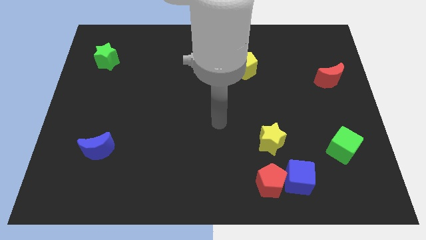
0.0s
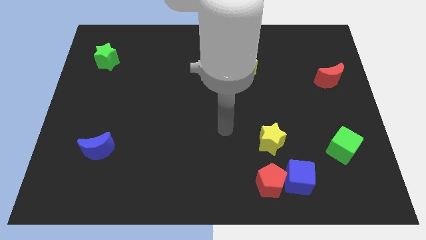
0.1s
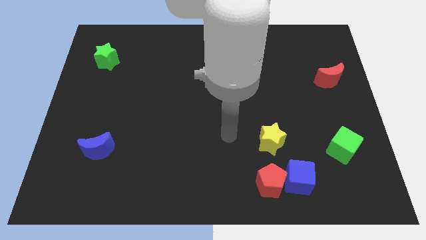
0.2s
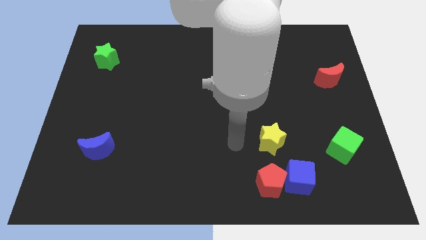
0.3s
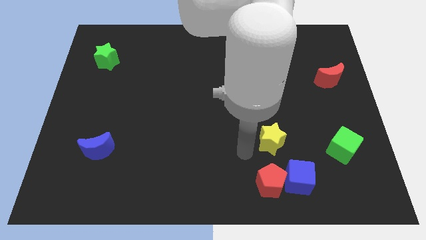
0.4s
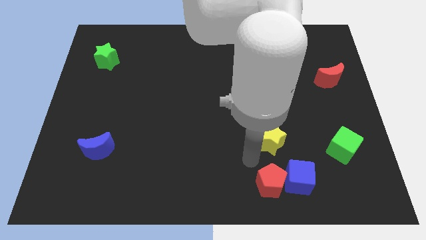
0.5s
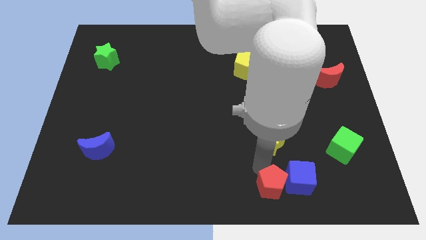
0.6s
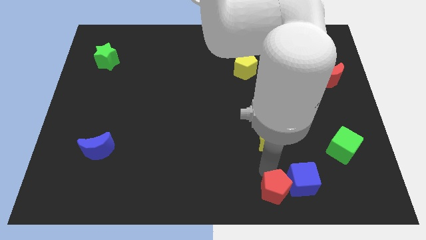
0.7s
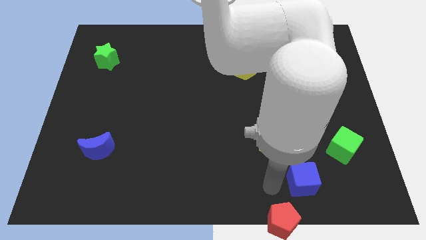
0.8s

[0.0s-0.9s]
pull the blue cube apart from the red pentagon

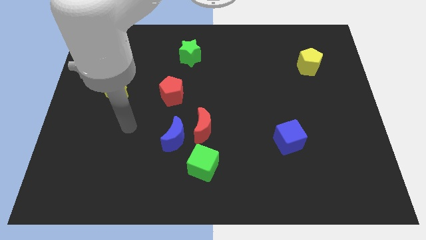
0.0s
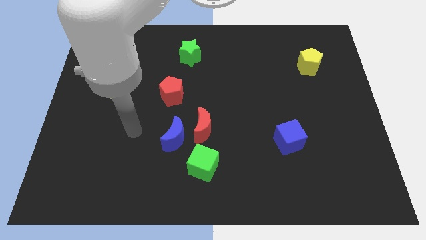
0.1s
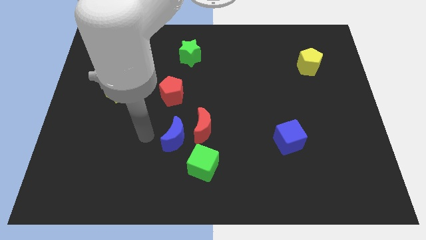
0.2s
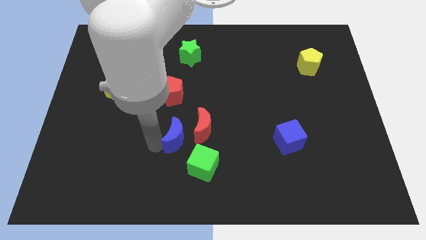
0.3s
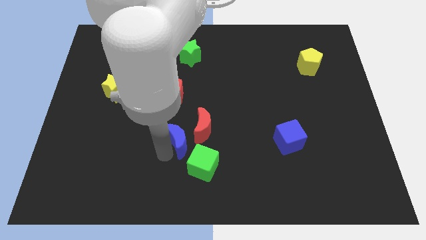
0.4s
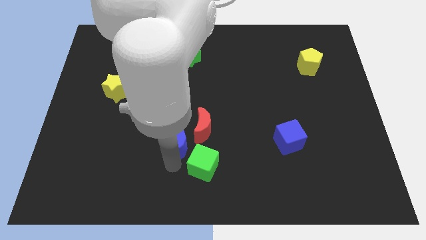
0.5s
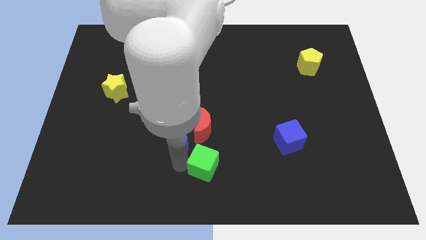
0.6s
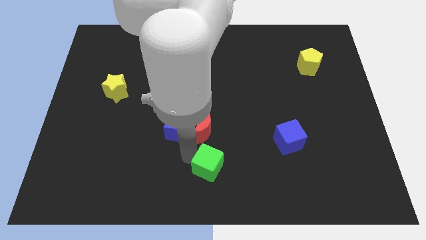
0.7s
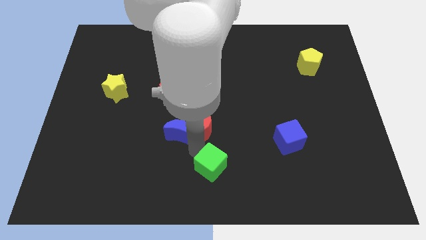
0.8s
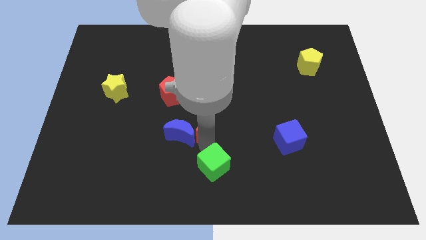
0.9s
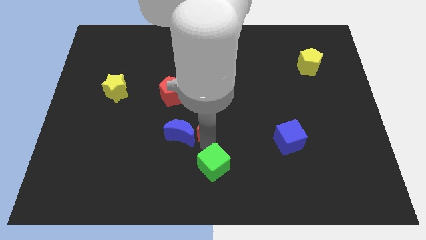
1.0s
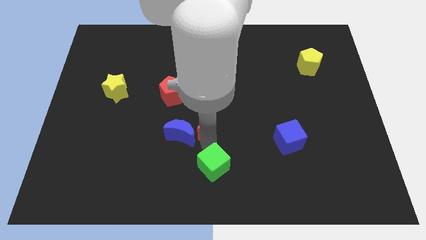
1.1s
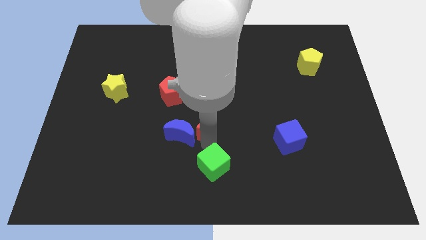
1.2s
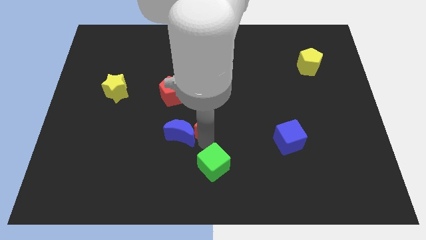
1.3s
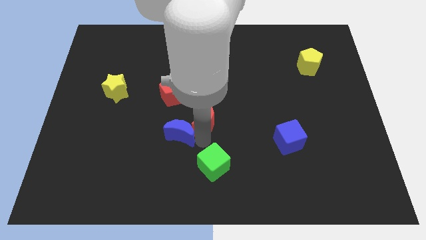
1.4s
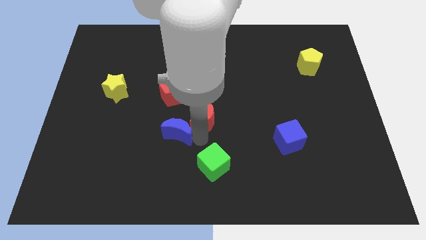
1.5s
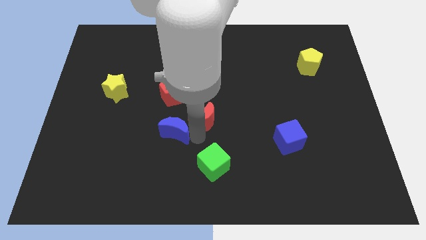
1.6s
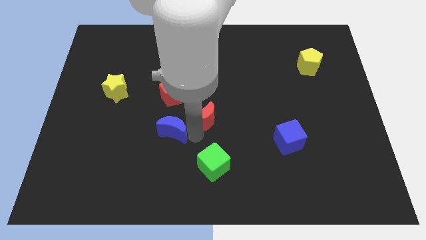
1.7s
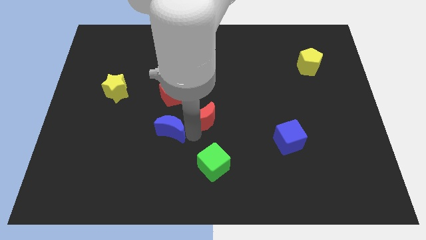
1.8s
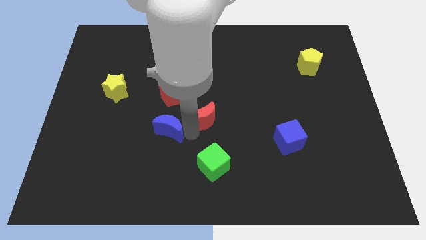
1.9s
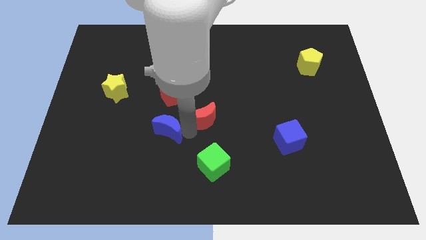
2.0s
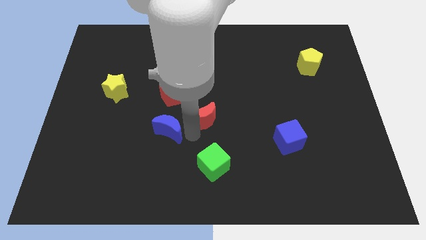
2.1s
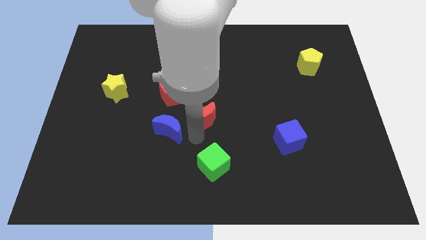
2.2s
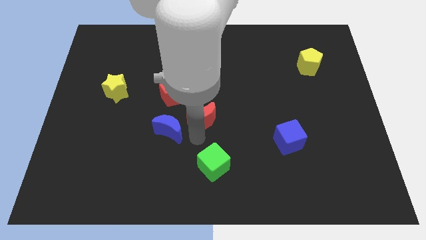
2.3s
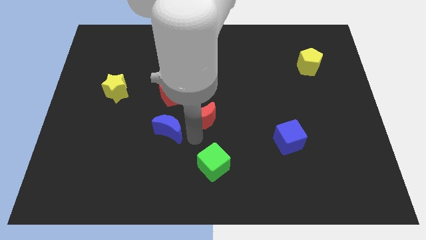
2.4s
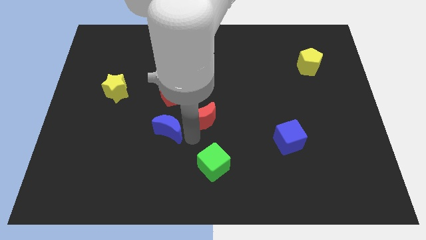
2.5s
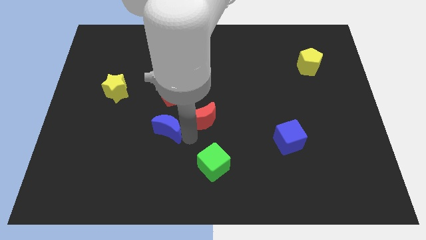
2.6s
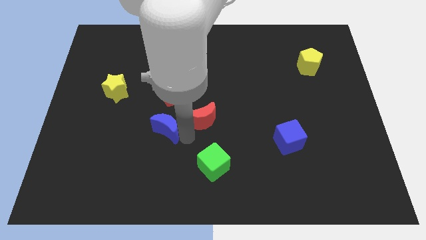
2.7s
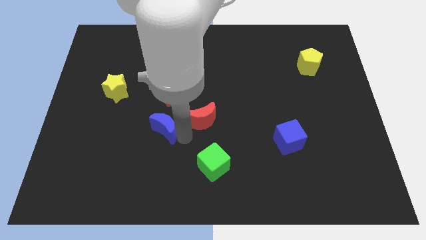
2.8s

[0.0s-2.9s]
pull the blue moon apart from the red moon and green cube

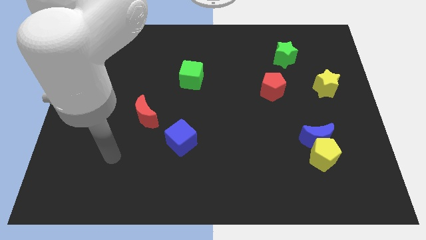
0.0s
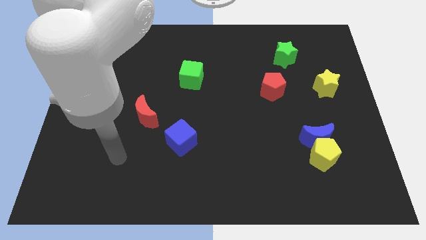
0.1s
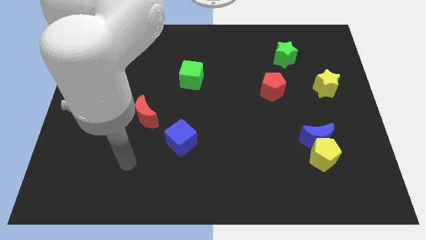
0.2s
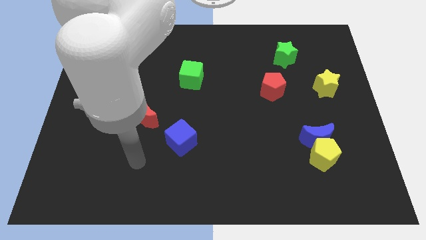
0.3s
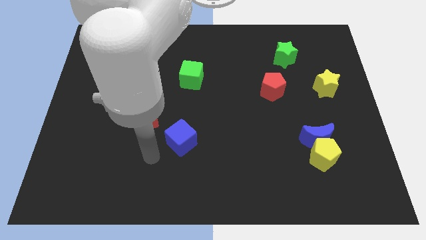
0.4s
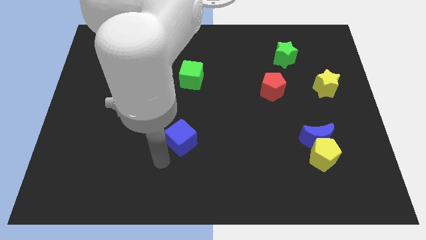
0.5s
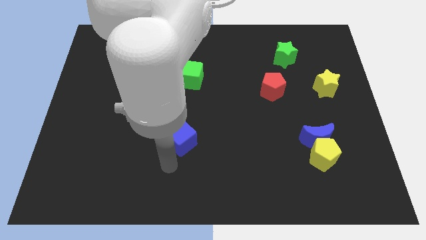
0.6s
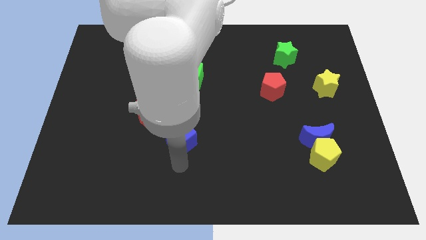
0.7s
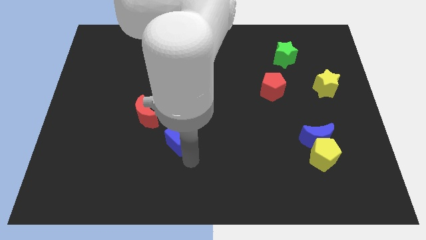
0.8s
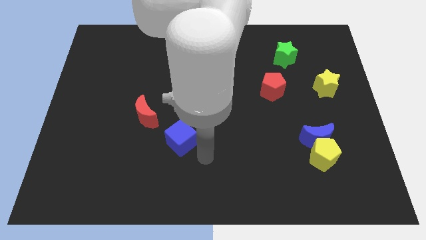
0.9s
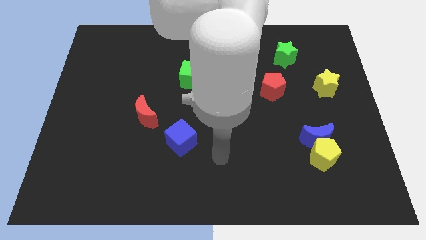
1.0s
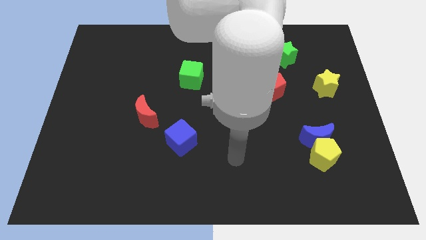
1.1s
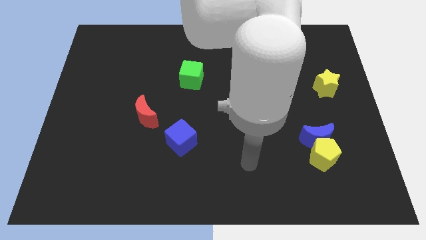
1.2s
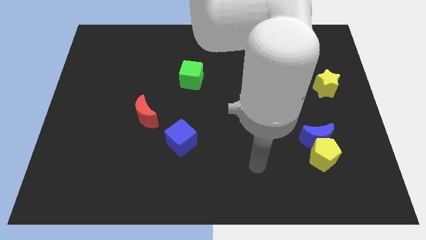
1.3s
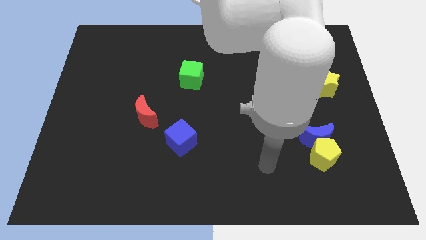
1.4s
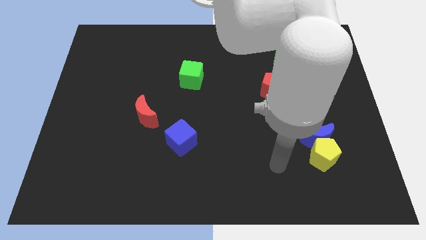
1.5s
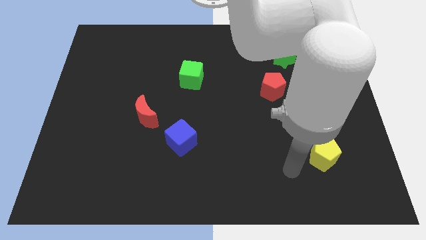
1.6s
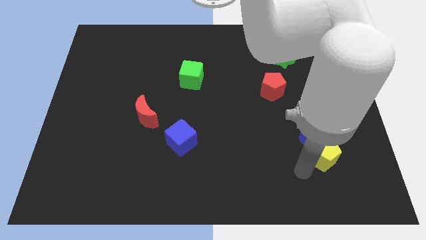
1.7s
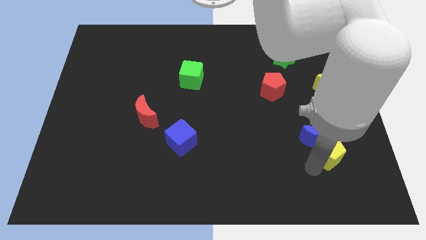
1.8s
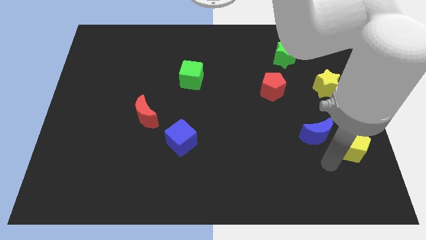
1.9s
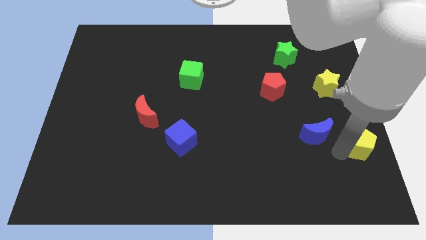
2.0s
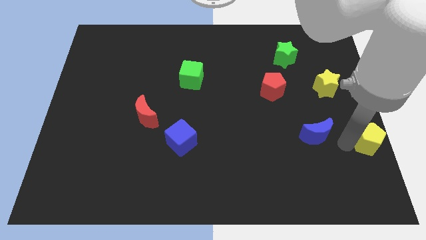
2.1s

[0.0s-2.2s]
pull the blue moon apart from the yellow pentagon

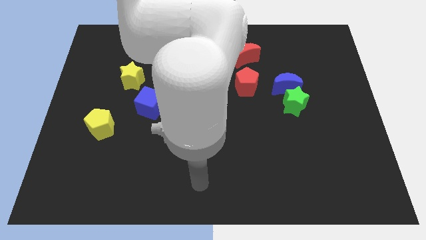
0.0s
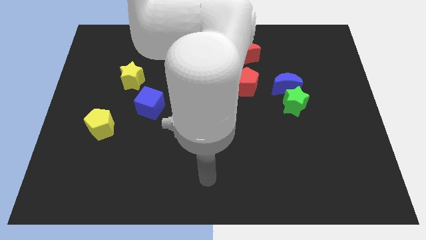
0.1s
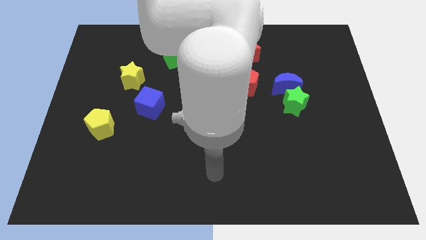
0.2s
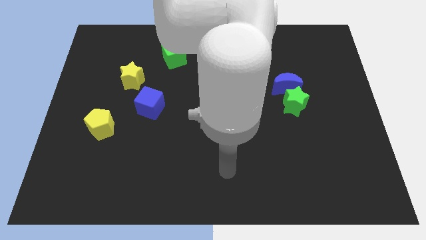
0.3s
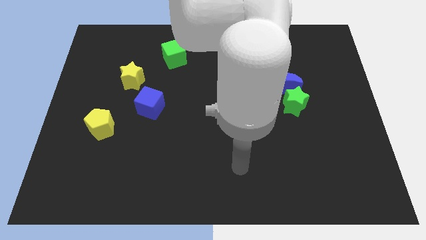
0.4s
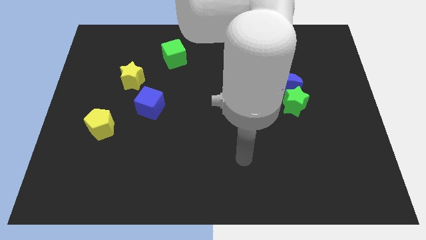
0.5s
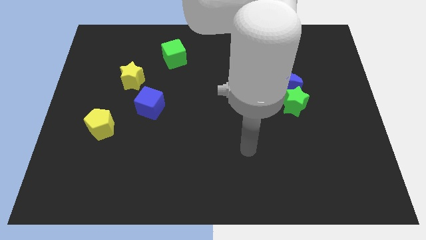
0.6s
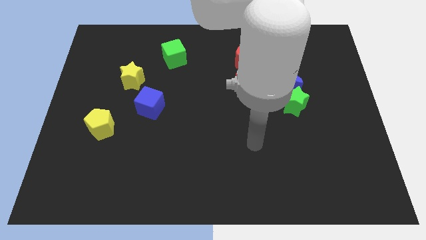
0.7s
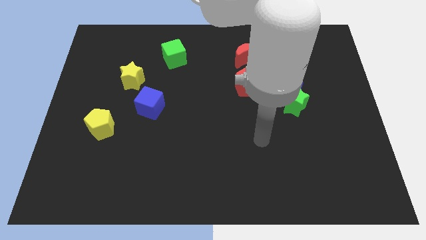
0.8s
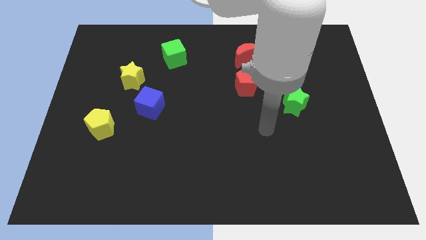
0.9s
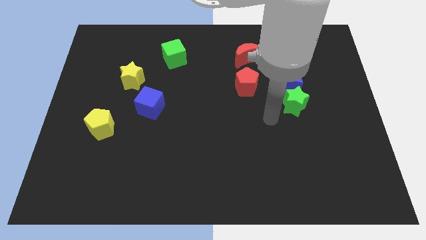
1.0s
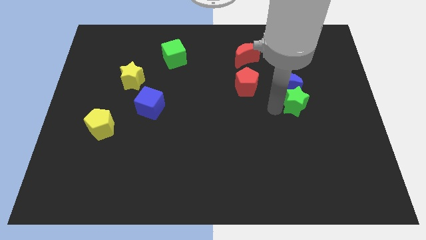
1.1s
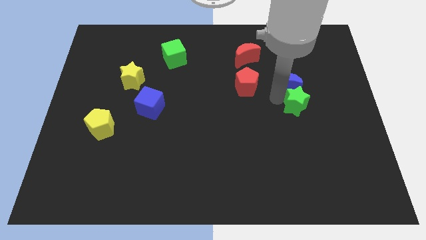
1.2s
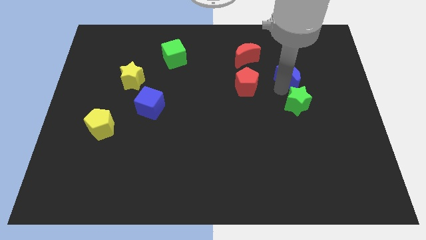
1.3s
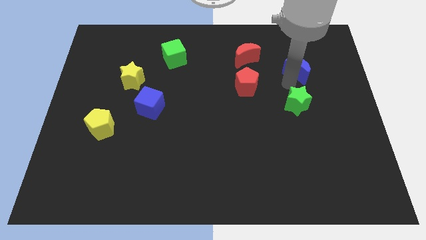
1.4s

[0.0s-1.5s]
separate the green star from the blue moon

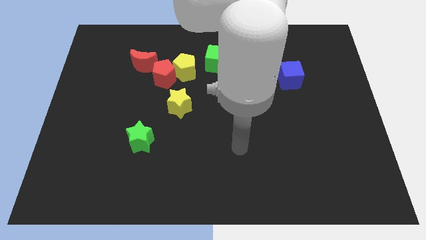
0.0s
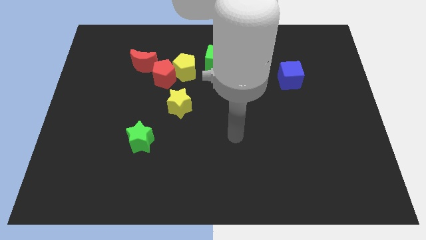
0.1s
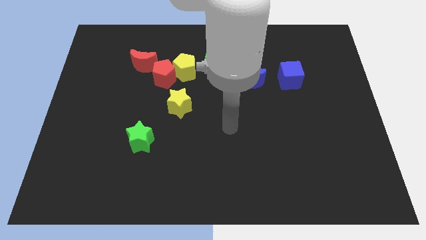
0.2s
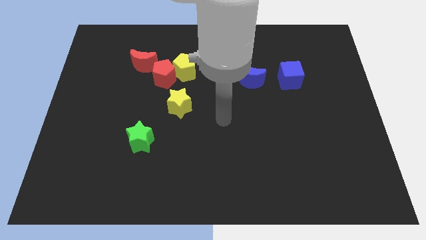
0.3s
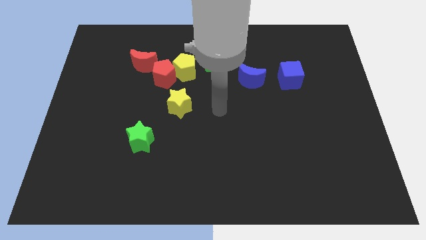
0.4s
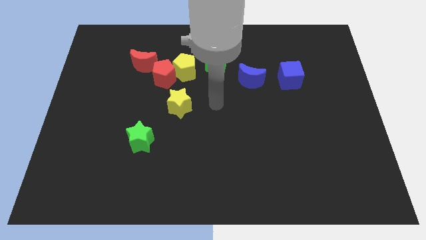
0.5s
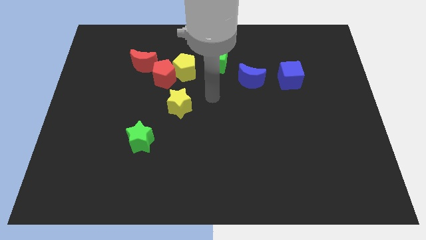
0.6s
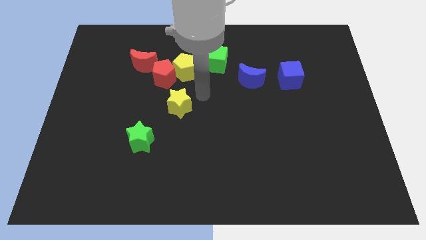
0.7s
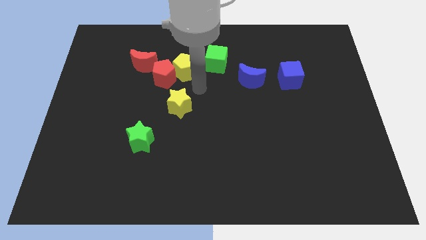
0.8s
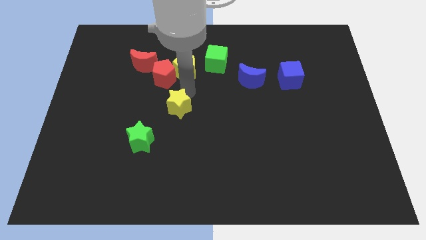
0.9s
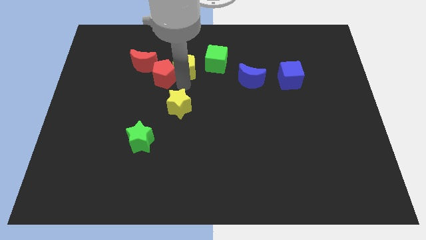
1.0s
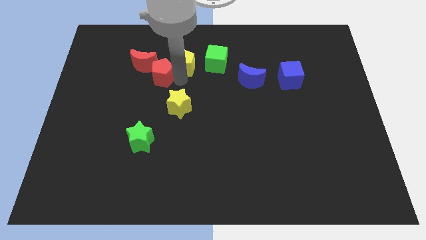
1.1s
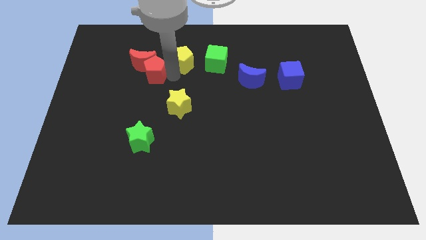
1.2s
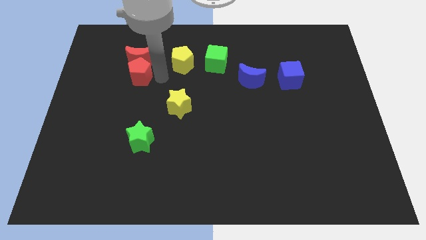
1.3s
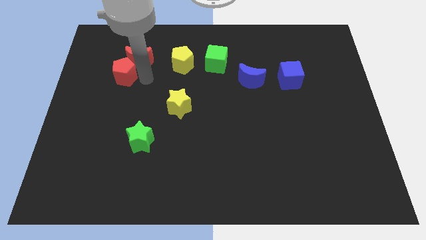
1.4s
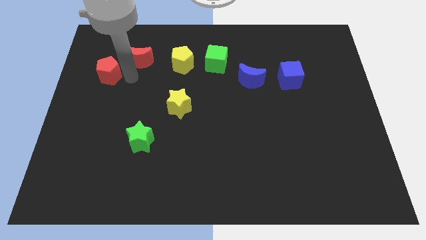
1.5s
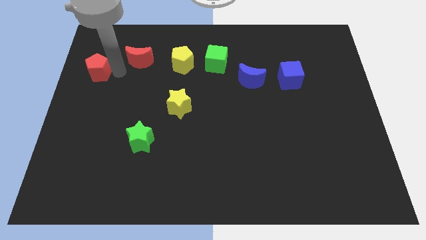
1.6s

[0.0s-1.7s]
move the red moon away from the red pentagon
